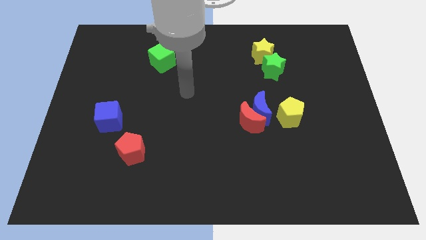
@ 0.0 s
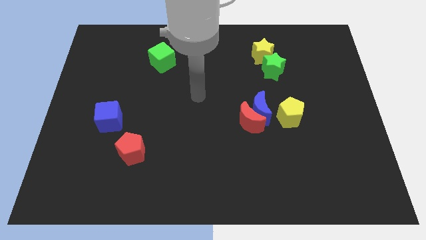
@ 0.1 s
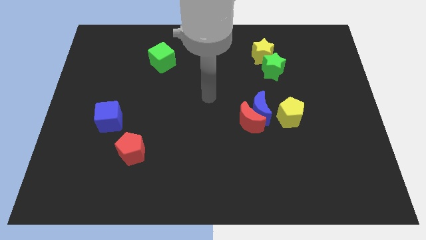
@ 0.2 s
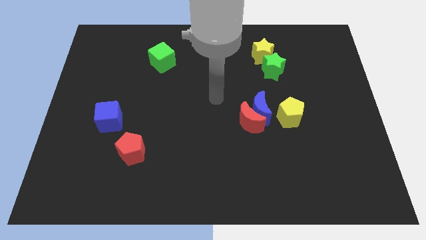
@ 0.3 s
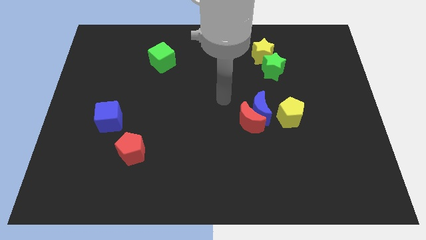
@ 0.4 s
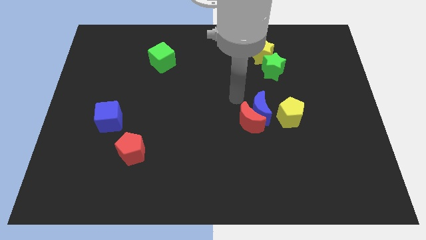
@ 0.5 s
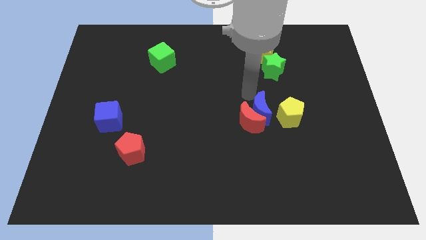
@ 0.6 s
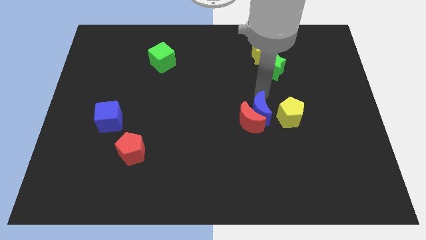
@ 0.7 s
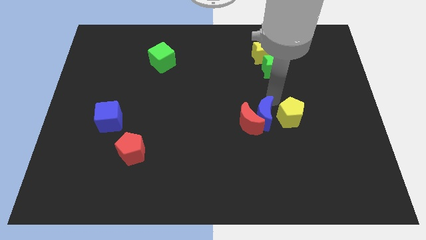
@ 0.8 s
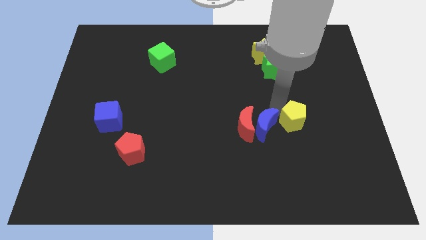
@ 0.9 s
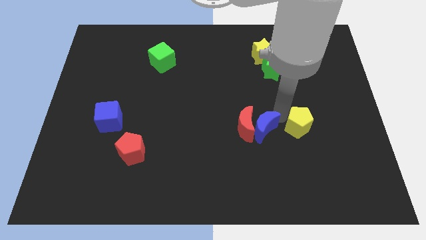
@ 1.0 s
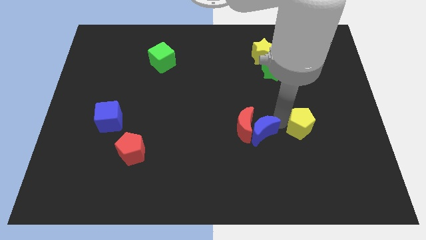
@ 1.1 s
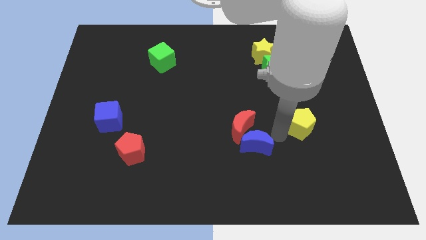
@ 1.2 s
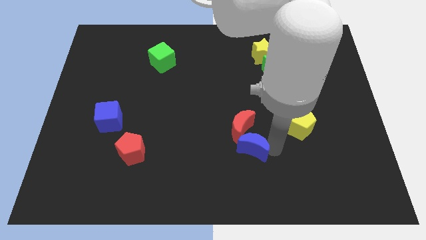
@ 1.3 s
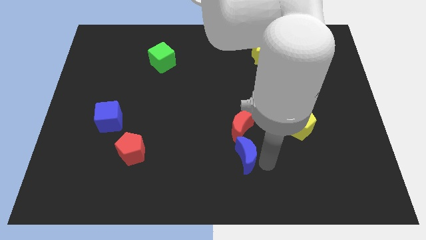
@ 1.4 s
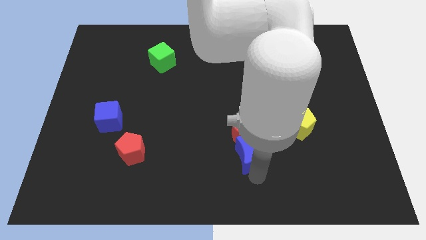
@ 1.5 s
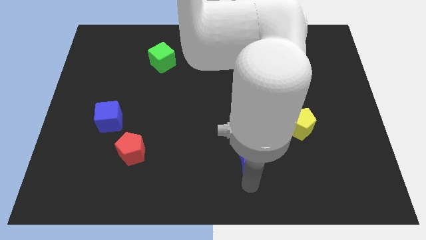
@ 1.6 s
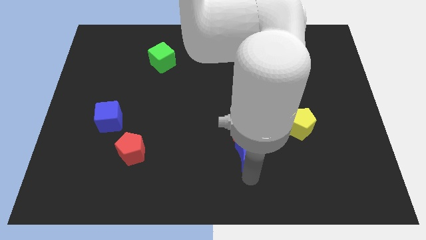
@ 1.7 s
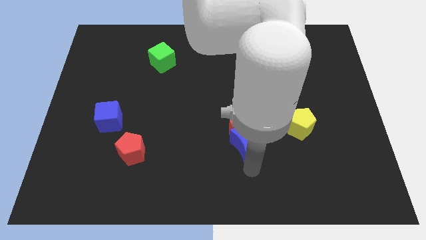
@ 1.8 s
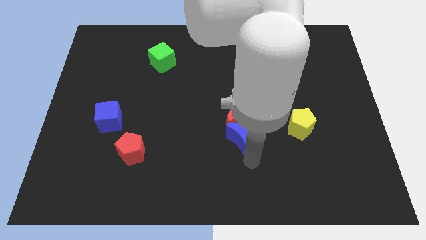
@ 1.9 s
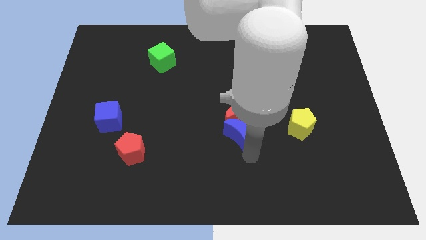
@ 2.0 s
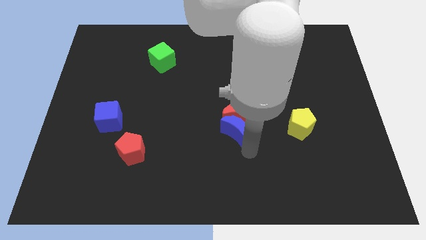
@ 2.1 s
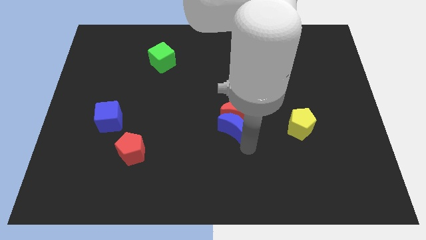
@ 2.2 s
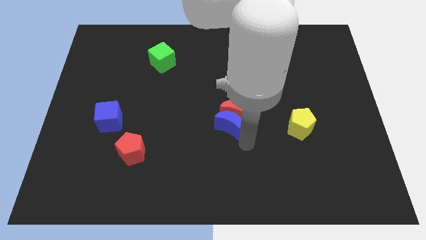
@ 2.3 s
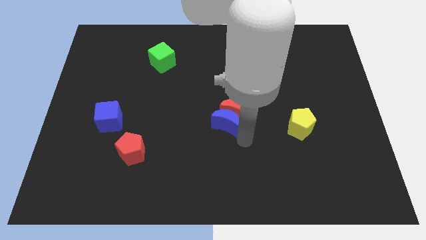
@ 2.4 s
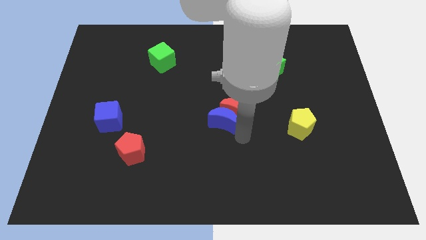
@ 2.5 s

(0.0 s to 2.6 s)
move the blue moon away from the red moon and yellow pentagon

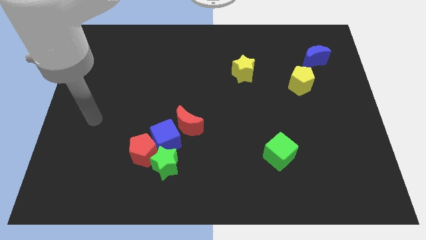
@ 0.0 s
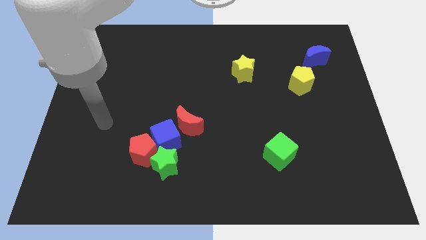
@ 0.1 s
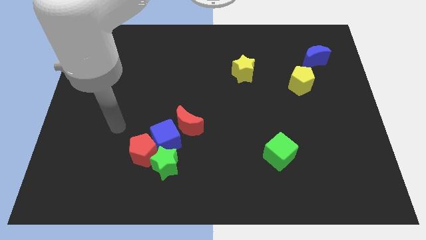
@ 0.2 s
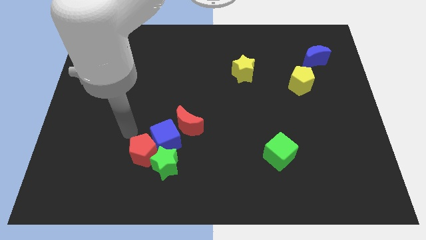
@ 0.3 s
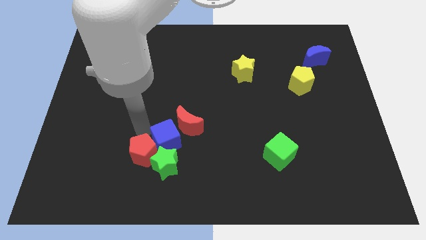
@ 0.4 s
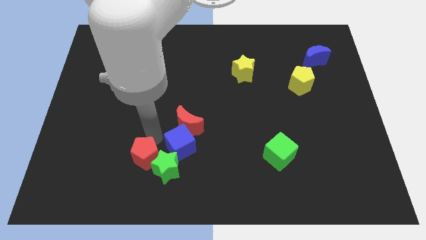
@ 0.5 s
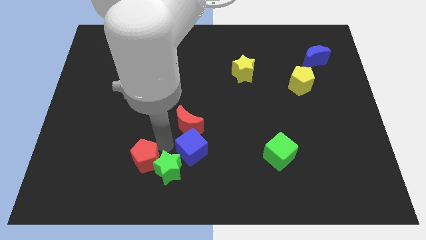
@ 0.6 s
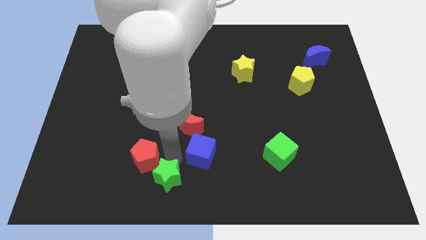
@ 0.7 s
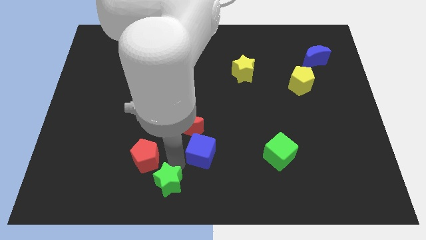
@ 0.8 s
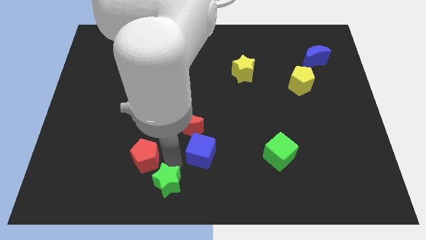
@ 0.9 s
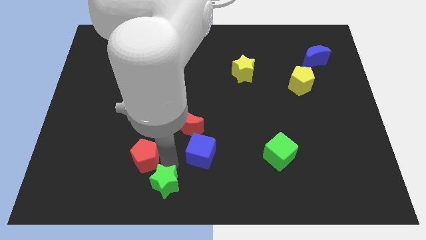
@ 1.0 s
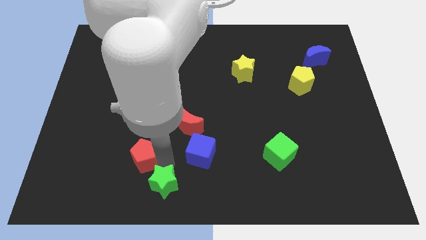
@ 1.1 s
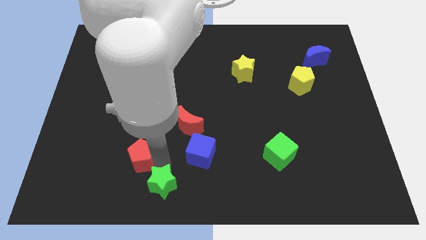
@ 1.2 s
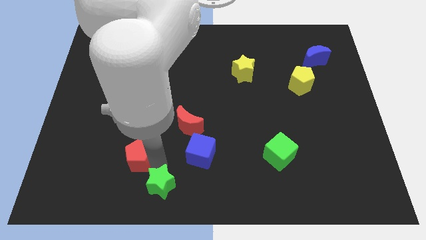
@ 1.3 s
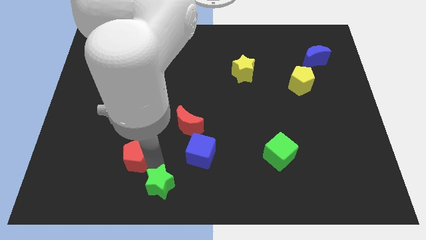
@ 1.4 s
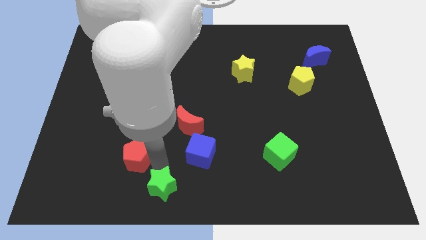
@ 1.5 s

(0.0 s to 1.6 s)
move the red pentagon away from the blue cube and green star

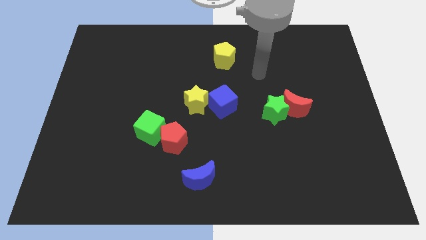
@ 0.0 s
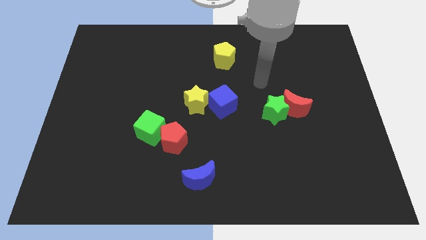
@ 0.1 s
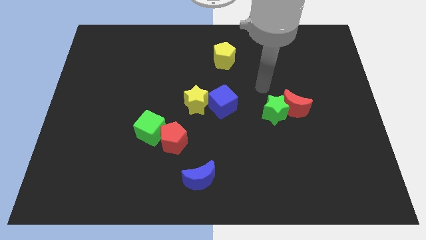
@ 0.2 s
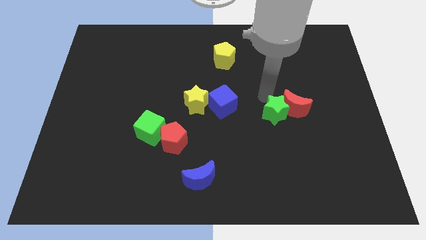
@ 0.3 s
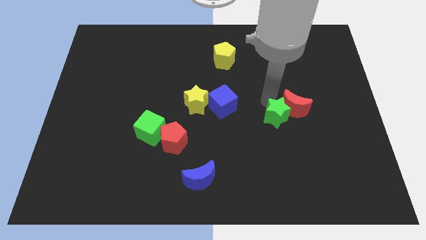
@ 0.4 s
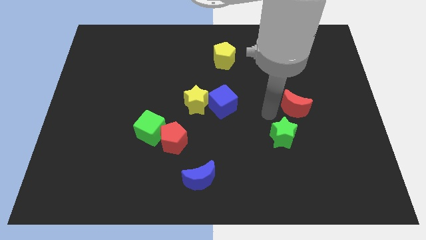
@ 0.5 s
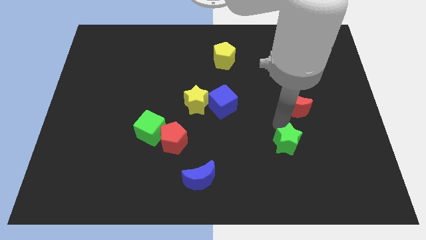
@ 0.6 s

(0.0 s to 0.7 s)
move the red moon away from the green star

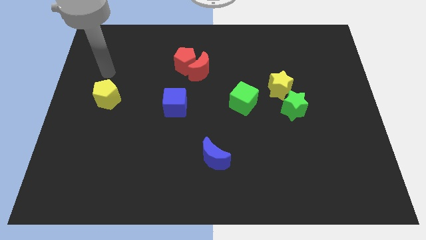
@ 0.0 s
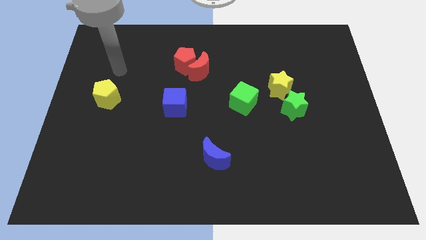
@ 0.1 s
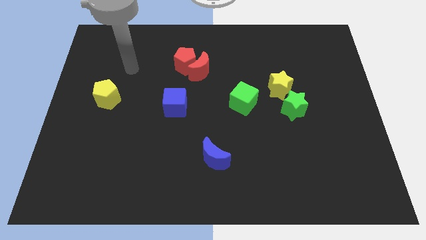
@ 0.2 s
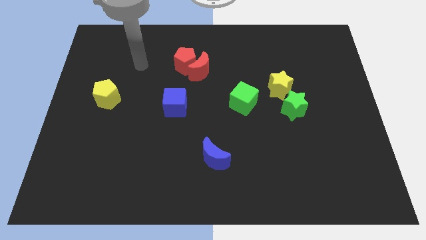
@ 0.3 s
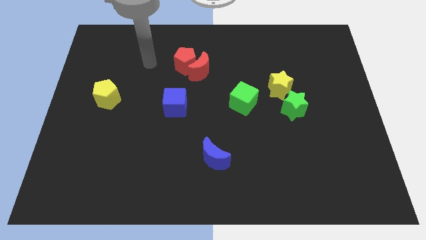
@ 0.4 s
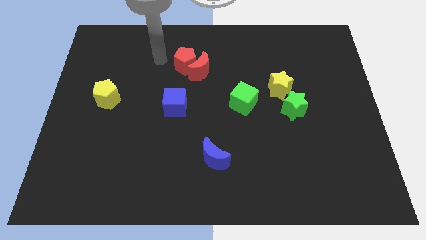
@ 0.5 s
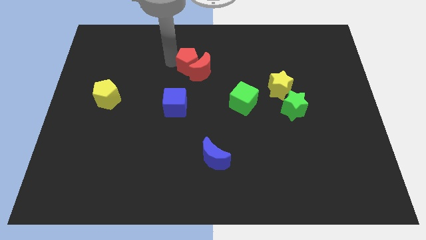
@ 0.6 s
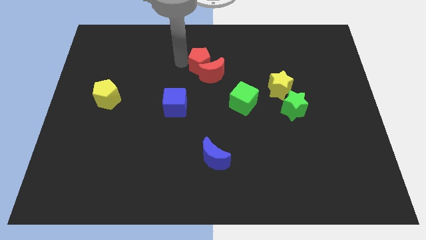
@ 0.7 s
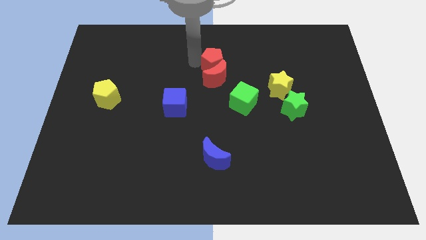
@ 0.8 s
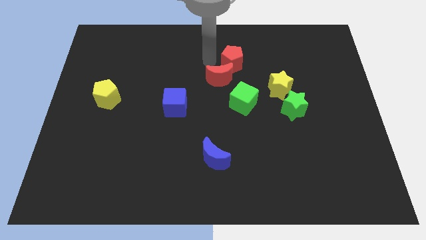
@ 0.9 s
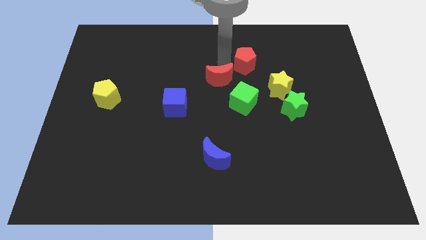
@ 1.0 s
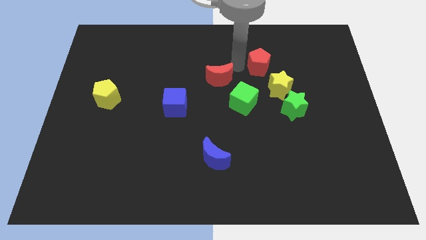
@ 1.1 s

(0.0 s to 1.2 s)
separate the red moon from the red pentagon

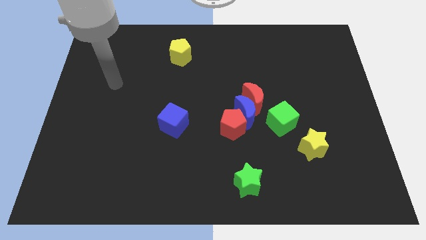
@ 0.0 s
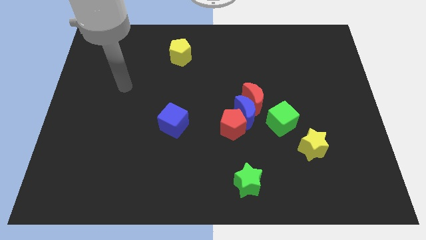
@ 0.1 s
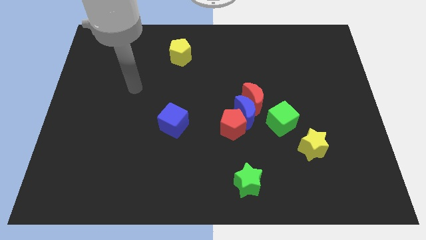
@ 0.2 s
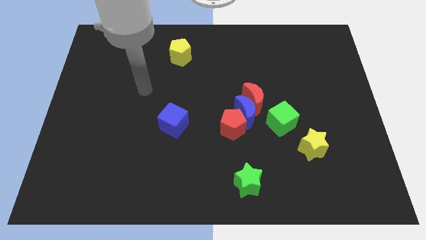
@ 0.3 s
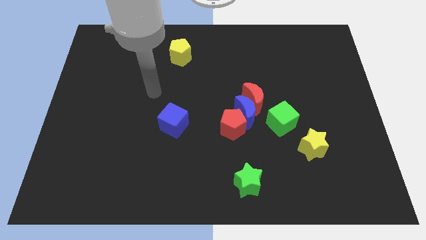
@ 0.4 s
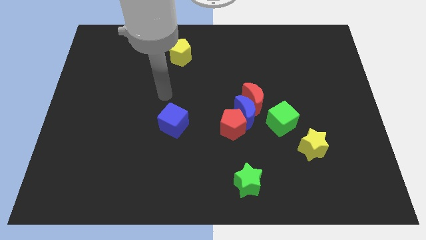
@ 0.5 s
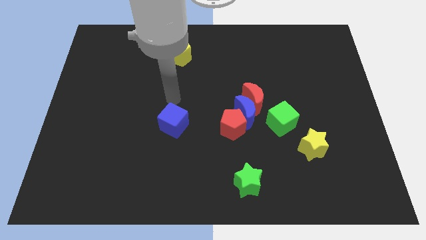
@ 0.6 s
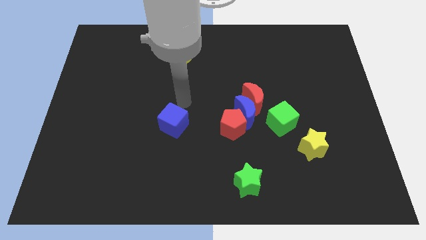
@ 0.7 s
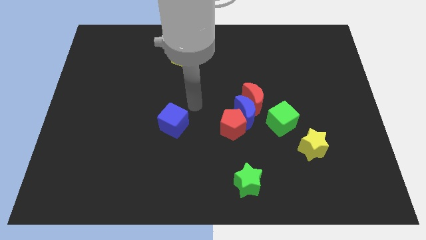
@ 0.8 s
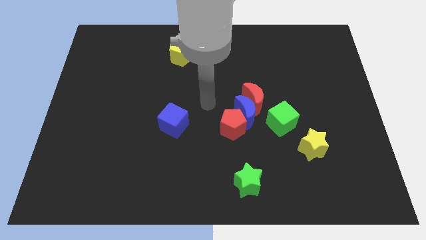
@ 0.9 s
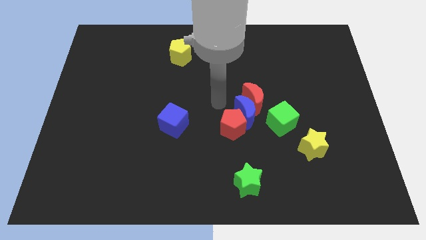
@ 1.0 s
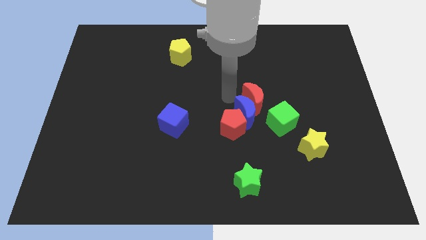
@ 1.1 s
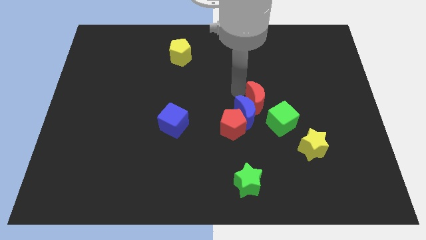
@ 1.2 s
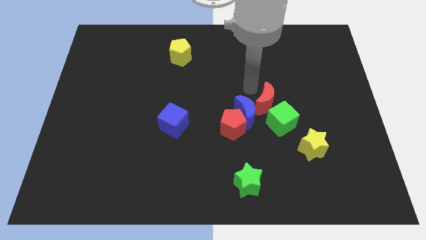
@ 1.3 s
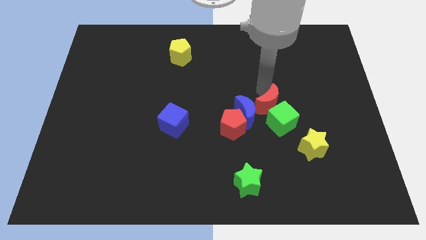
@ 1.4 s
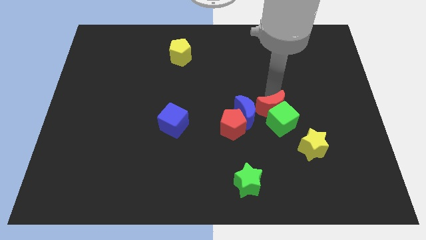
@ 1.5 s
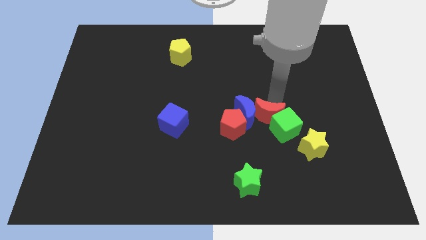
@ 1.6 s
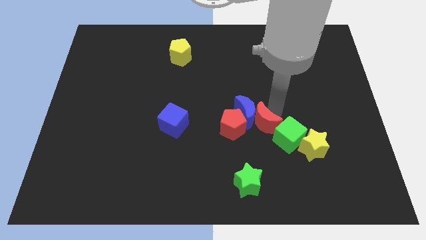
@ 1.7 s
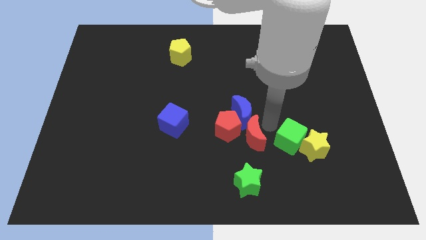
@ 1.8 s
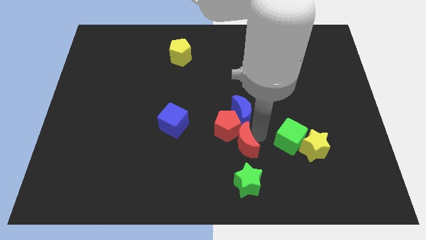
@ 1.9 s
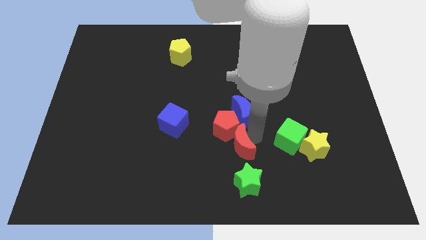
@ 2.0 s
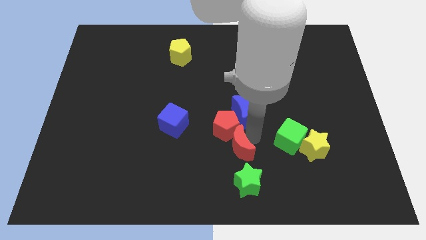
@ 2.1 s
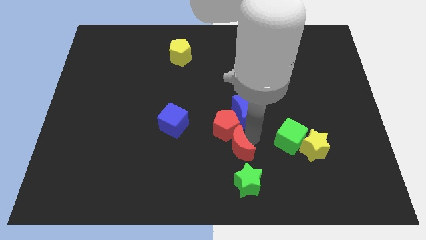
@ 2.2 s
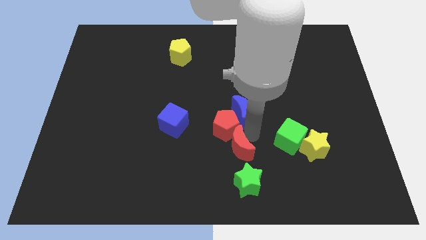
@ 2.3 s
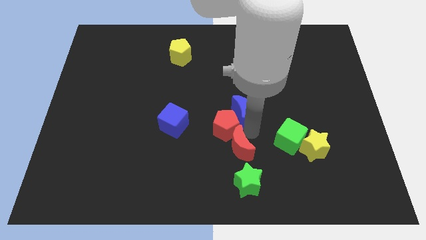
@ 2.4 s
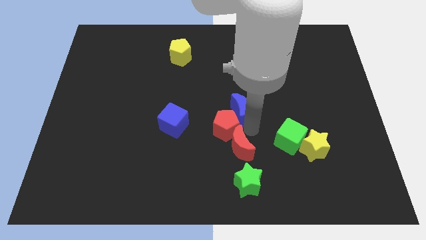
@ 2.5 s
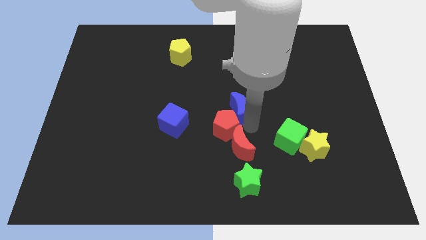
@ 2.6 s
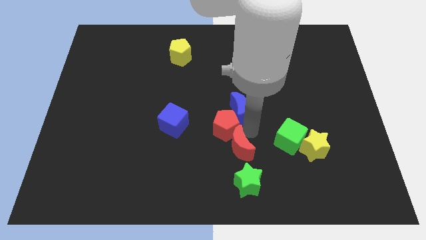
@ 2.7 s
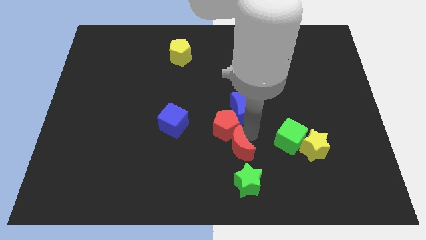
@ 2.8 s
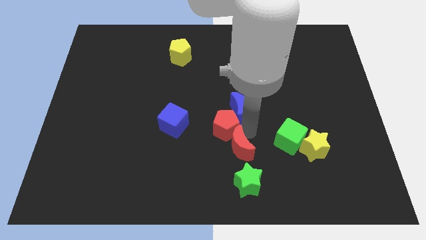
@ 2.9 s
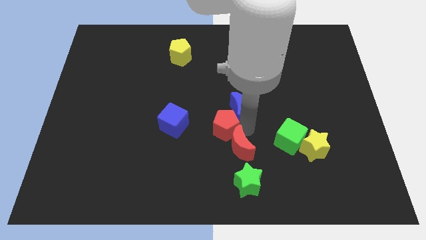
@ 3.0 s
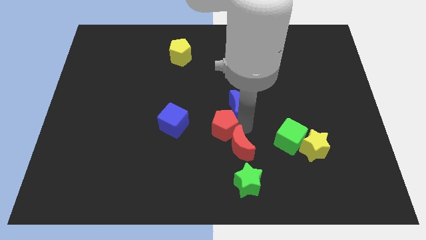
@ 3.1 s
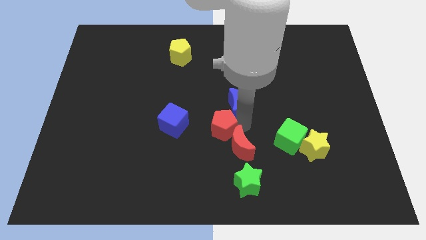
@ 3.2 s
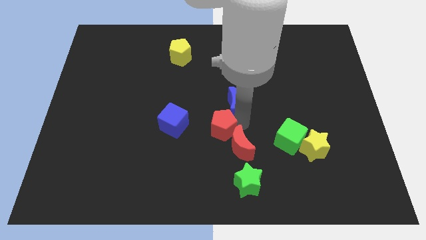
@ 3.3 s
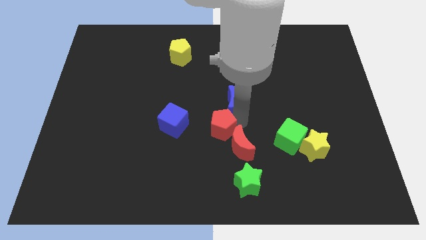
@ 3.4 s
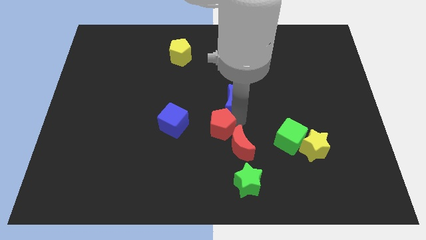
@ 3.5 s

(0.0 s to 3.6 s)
pull the blue moon apart from the group of blocks
